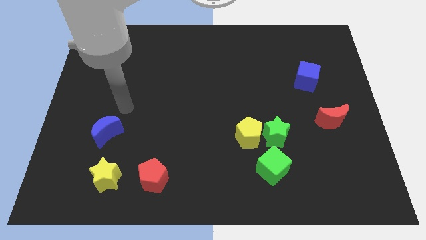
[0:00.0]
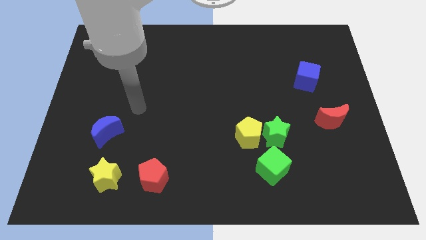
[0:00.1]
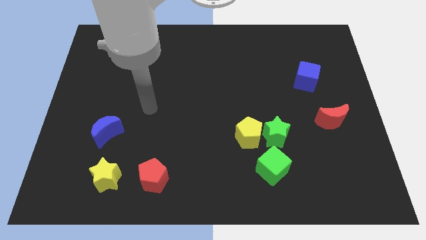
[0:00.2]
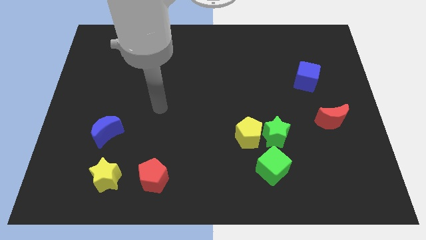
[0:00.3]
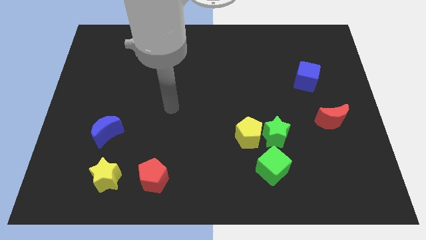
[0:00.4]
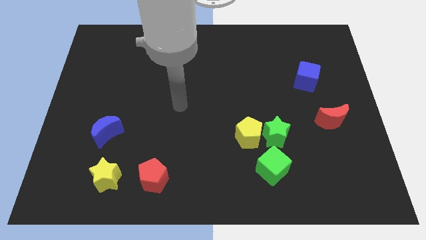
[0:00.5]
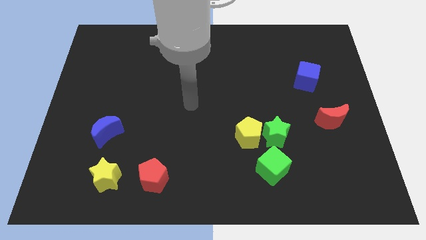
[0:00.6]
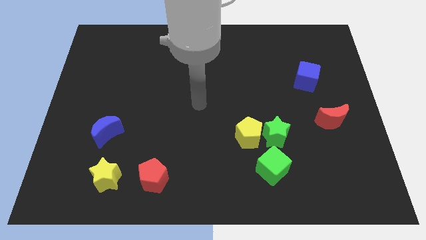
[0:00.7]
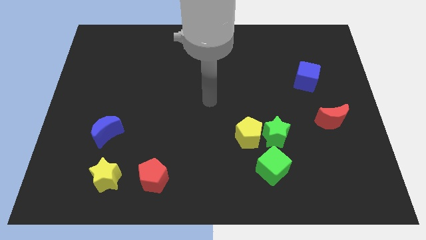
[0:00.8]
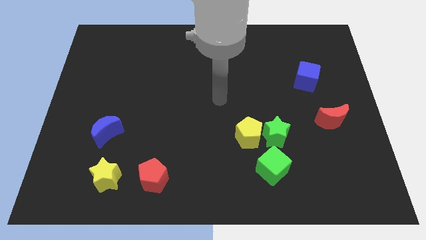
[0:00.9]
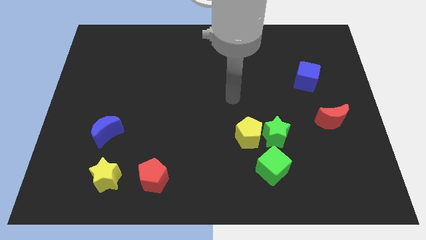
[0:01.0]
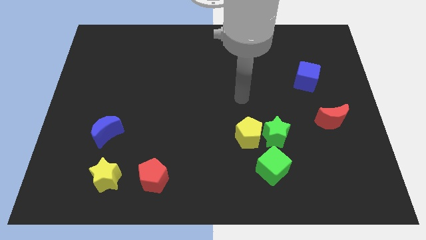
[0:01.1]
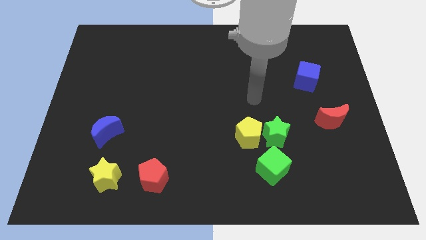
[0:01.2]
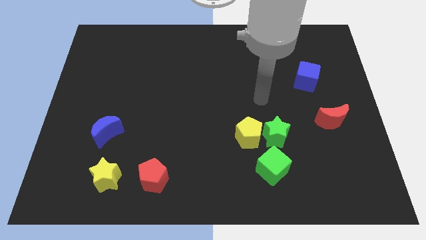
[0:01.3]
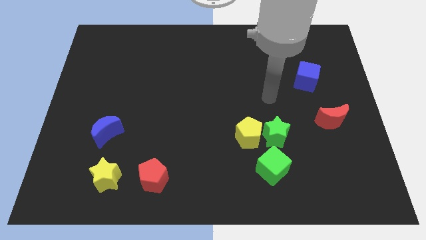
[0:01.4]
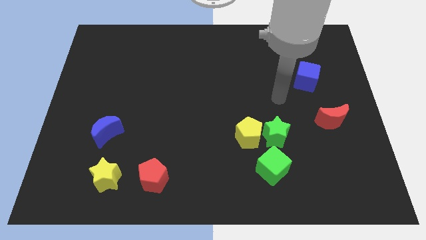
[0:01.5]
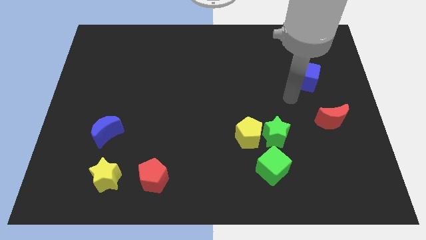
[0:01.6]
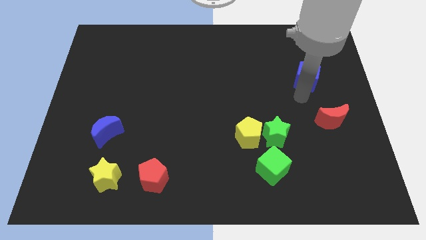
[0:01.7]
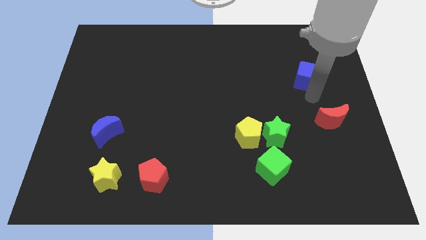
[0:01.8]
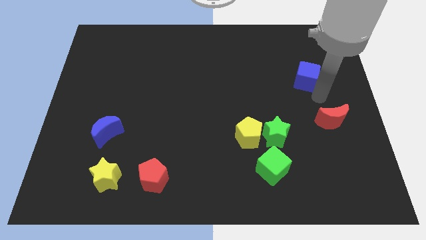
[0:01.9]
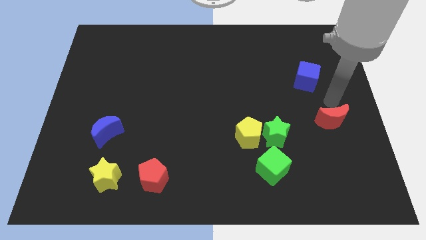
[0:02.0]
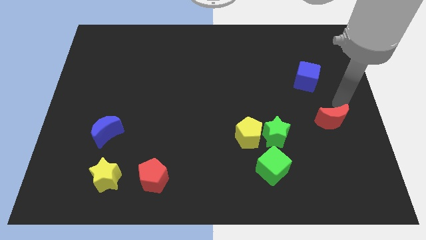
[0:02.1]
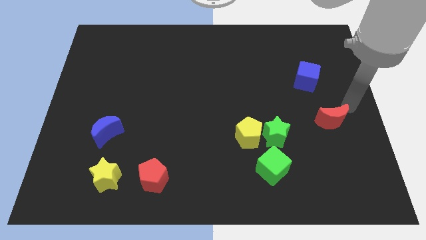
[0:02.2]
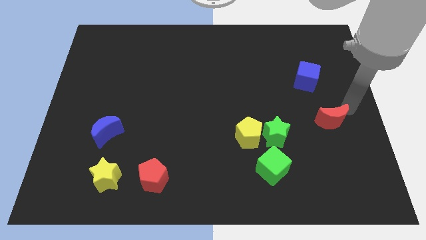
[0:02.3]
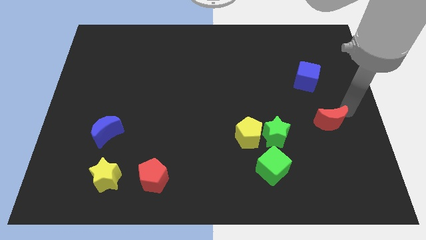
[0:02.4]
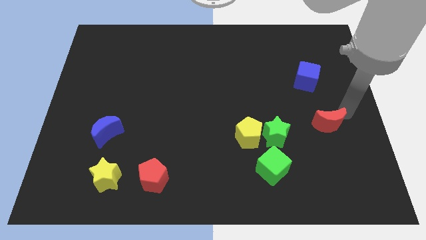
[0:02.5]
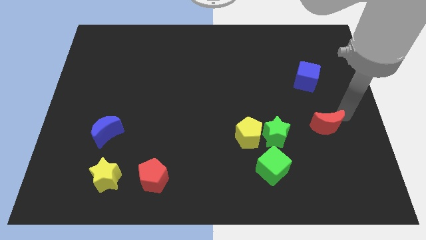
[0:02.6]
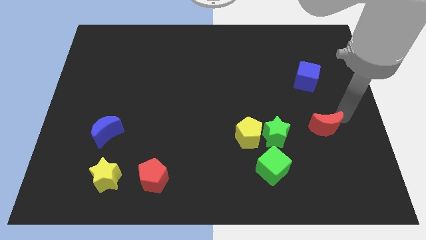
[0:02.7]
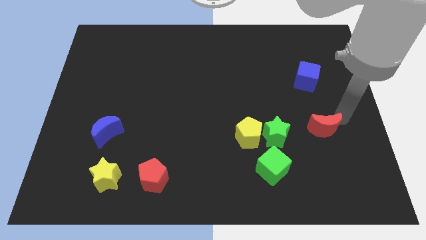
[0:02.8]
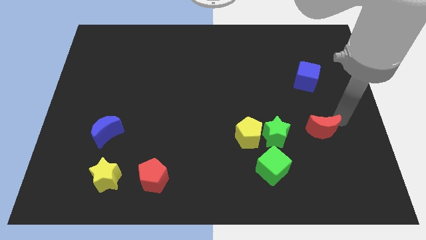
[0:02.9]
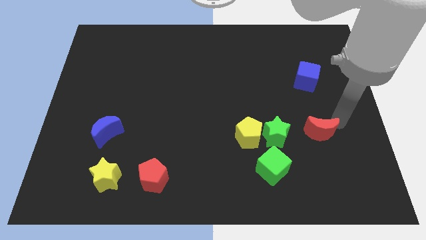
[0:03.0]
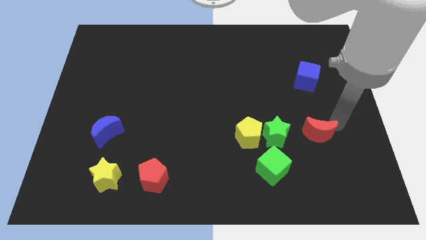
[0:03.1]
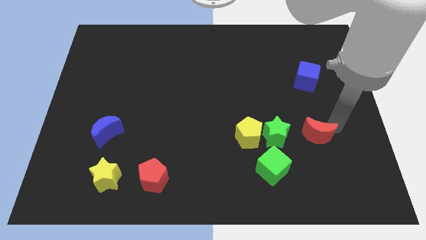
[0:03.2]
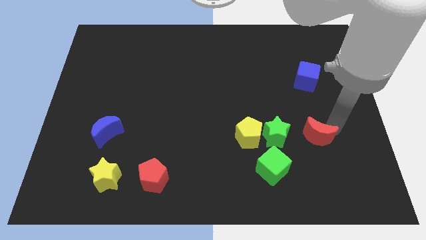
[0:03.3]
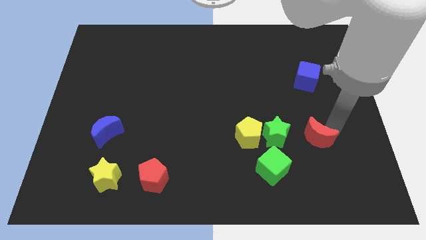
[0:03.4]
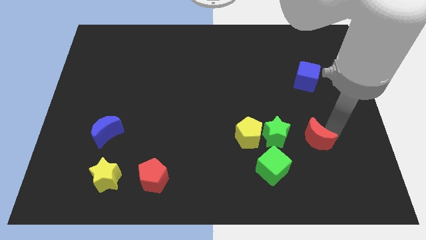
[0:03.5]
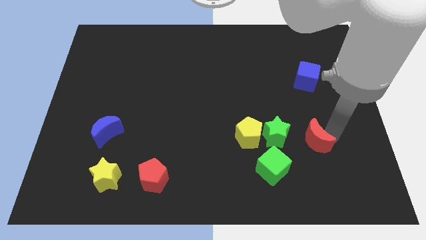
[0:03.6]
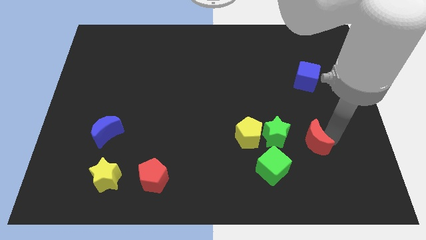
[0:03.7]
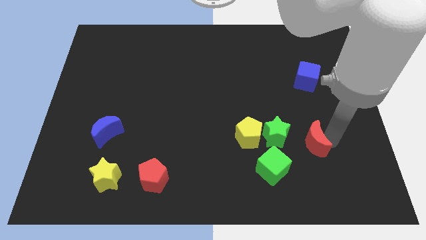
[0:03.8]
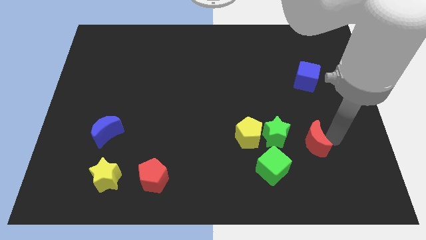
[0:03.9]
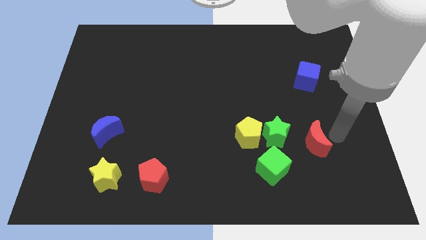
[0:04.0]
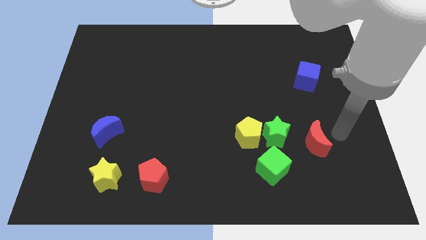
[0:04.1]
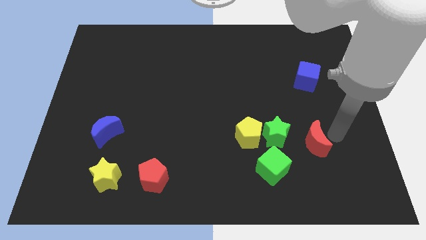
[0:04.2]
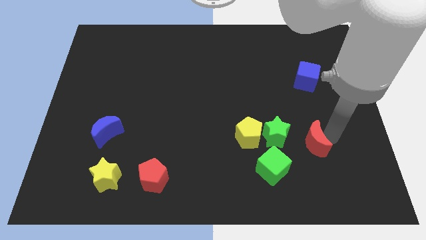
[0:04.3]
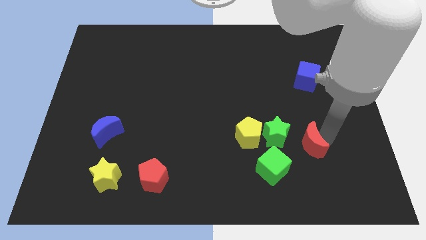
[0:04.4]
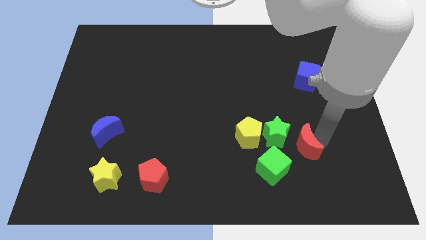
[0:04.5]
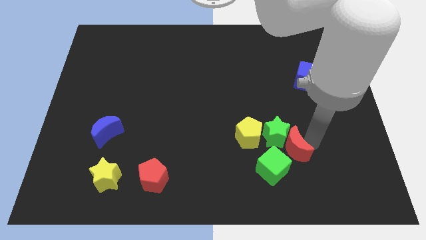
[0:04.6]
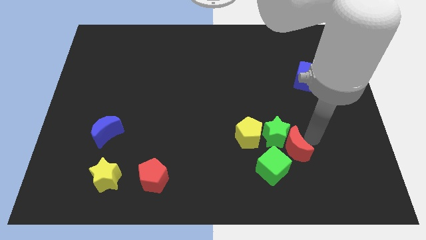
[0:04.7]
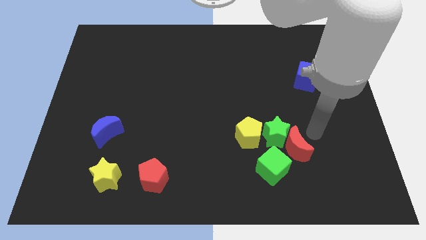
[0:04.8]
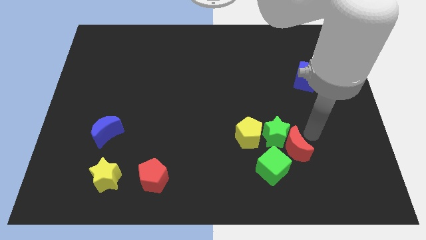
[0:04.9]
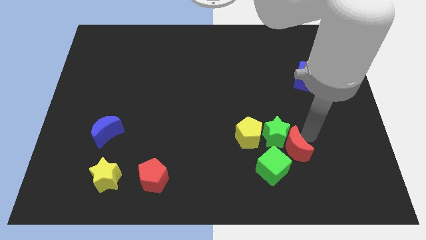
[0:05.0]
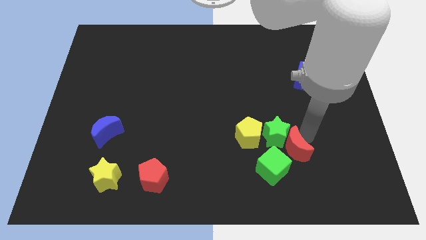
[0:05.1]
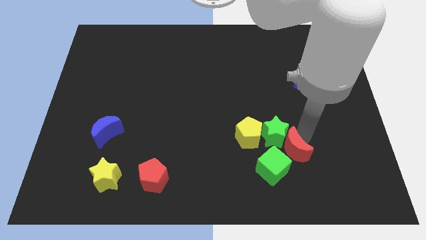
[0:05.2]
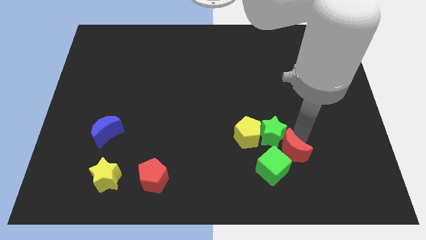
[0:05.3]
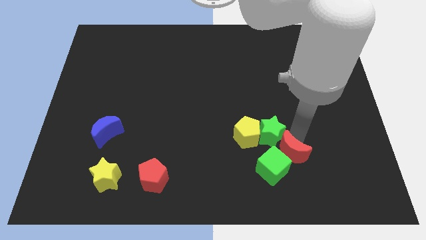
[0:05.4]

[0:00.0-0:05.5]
push the red moon towards the green cube

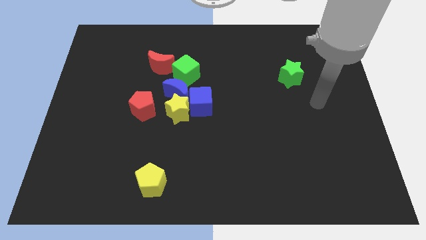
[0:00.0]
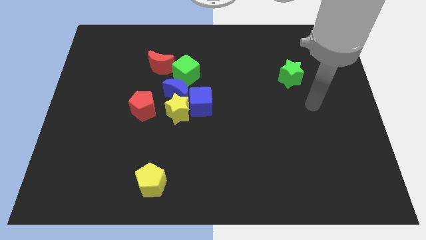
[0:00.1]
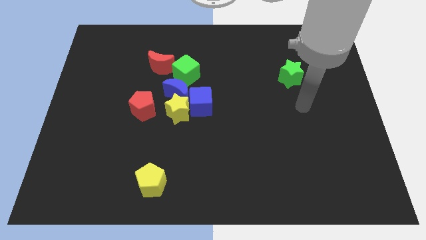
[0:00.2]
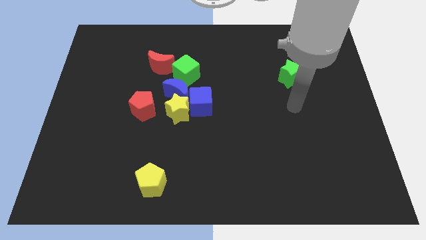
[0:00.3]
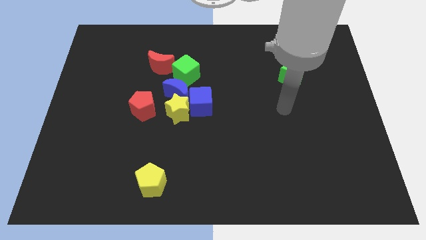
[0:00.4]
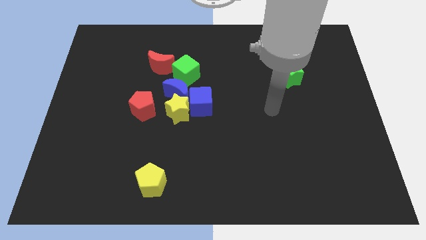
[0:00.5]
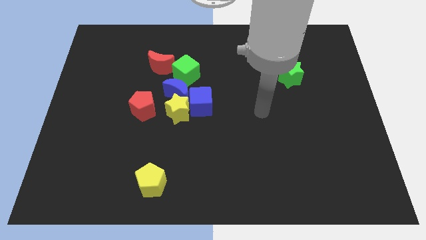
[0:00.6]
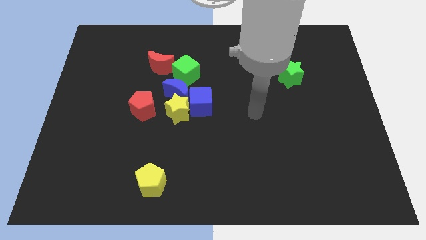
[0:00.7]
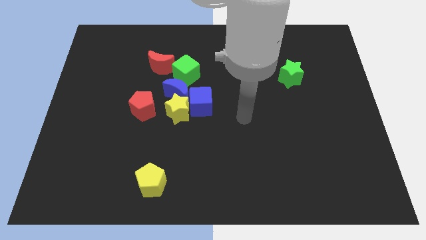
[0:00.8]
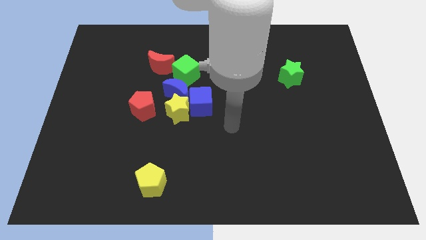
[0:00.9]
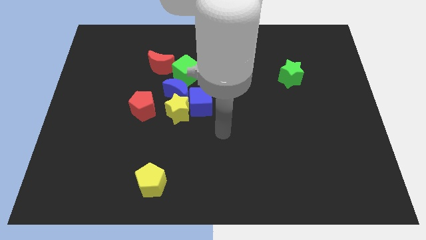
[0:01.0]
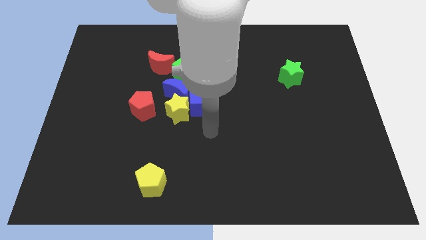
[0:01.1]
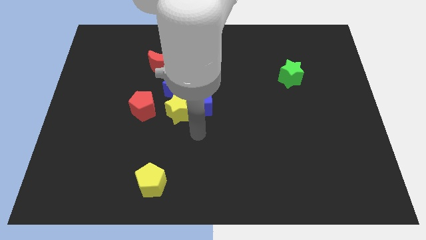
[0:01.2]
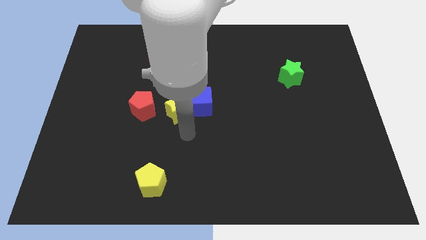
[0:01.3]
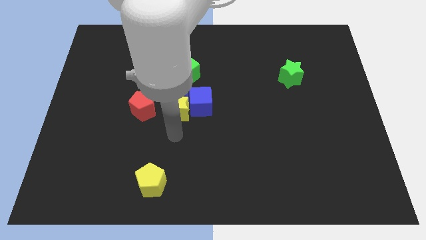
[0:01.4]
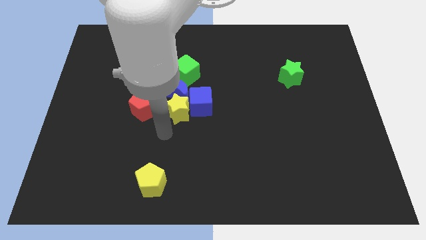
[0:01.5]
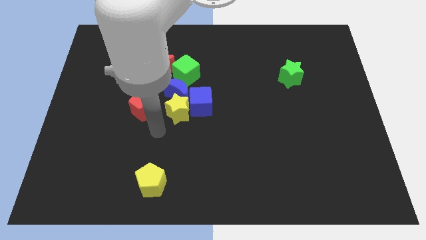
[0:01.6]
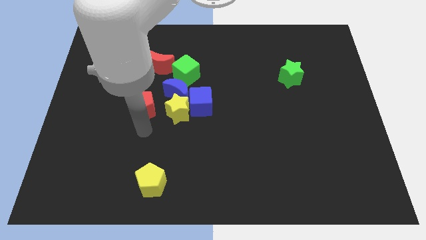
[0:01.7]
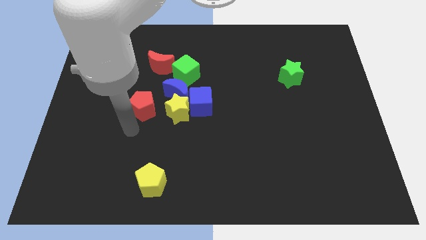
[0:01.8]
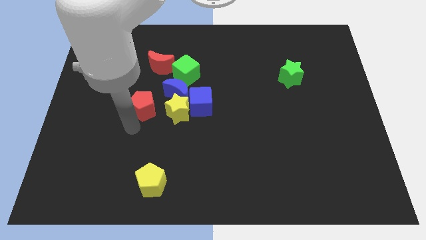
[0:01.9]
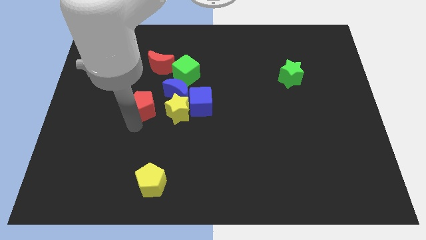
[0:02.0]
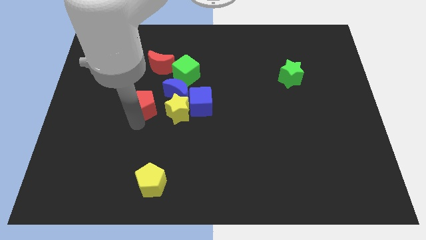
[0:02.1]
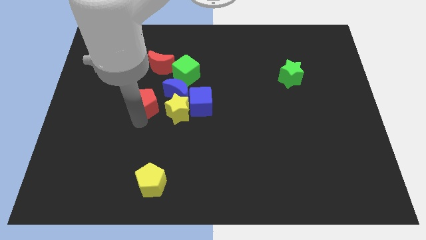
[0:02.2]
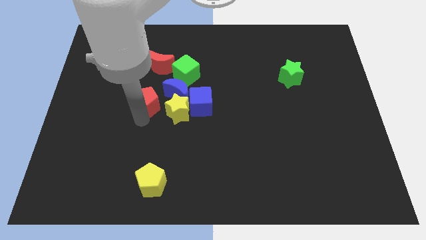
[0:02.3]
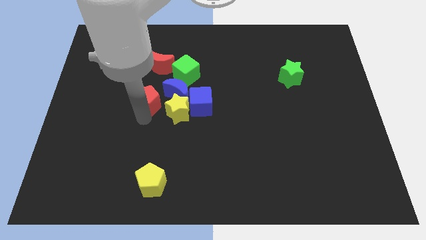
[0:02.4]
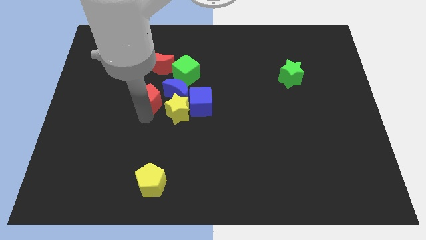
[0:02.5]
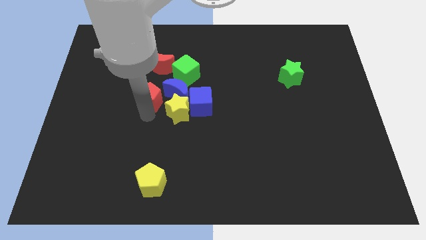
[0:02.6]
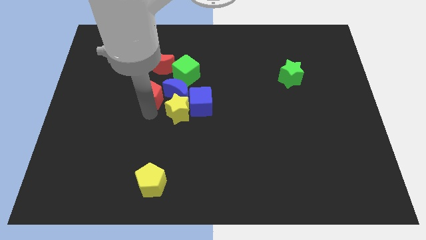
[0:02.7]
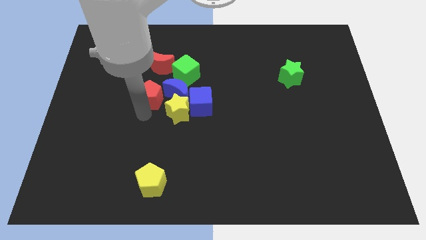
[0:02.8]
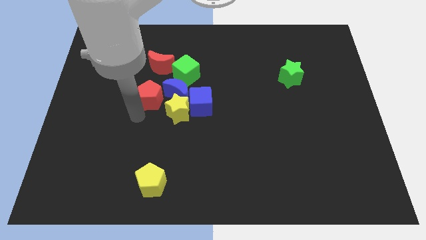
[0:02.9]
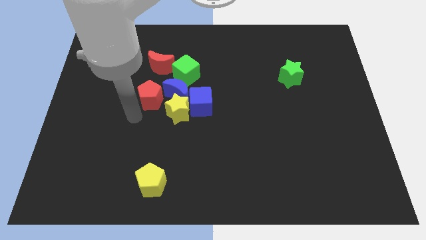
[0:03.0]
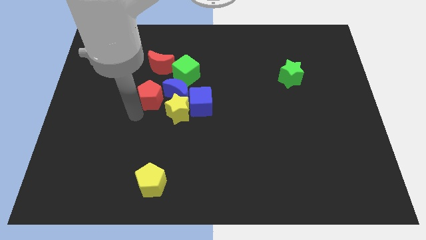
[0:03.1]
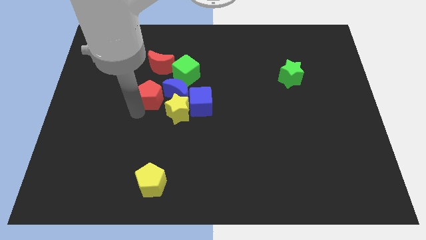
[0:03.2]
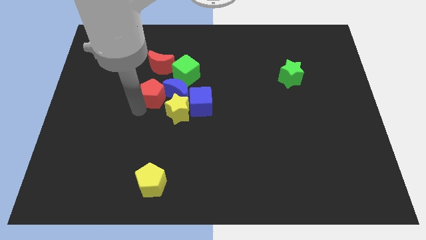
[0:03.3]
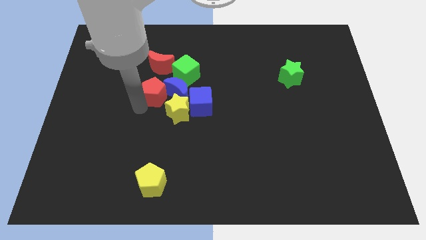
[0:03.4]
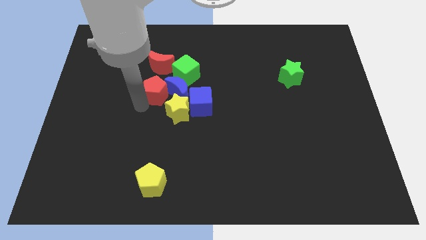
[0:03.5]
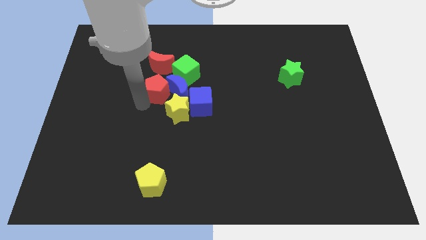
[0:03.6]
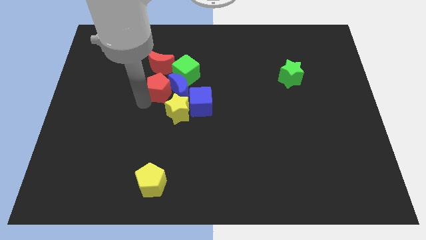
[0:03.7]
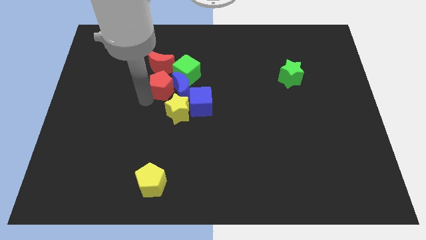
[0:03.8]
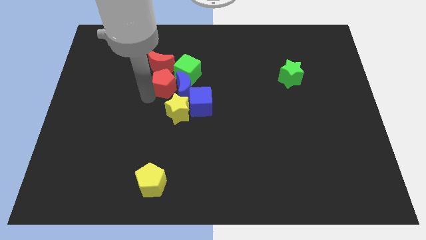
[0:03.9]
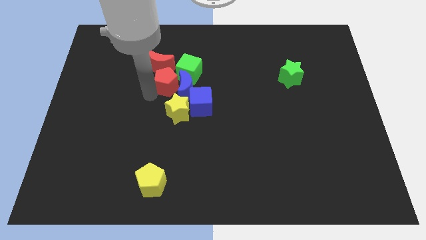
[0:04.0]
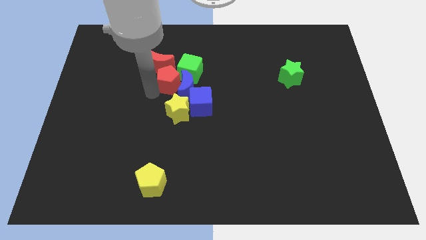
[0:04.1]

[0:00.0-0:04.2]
move the red pentagon close to the green cube
